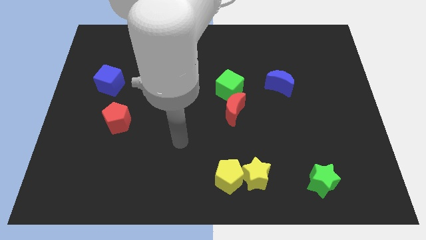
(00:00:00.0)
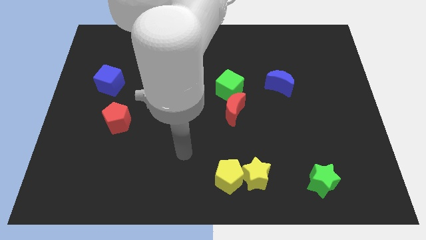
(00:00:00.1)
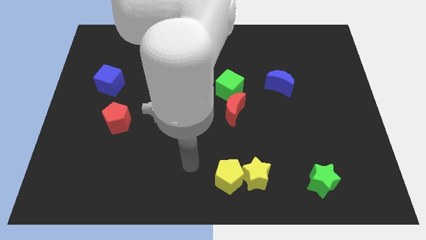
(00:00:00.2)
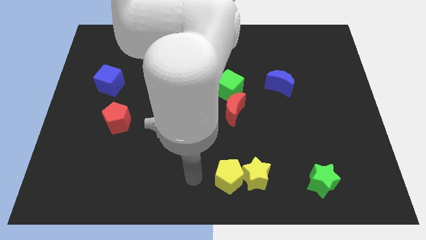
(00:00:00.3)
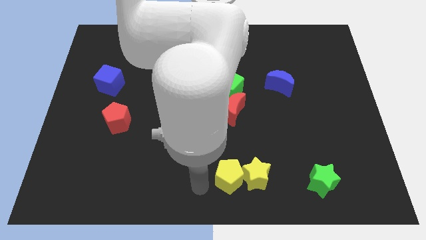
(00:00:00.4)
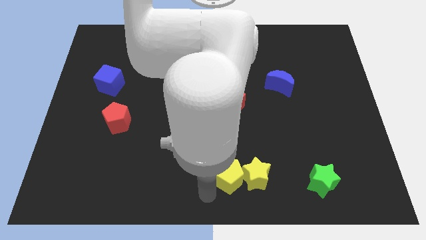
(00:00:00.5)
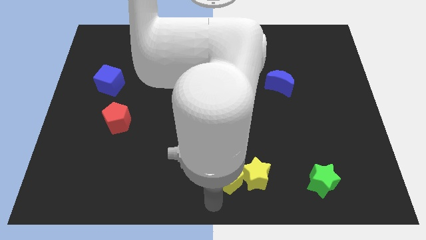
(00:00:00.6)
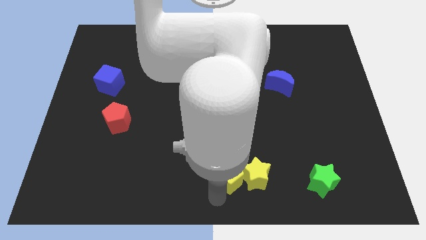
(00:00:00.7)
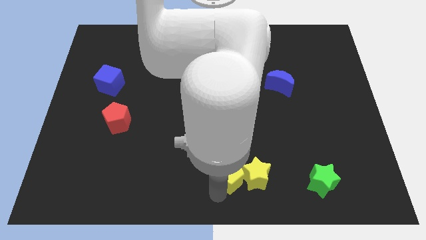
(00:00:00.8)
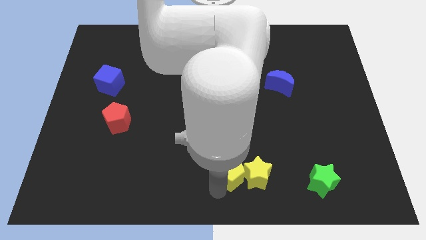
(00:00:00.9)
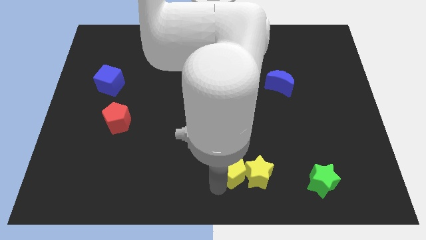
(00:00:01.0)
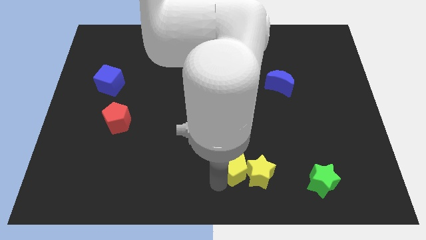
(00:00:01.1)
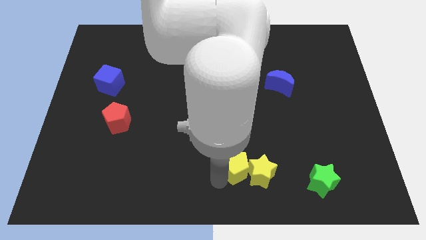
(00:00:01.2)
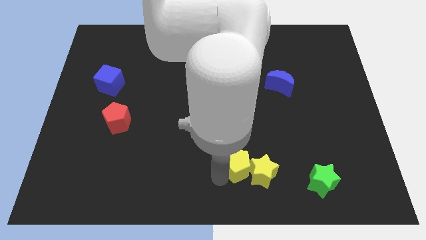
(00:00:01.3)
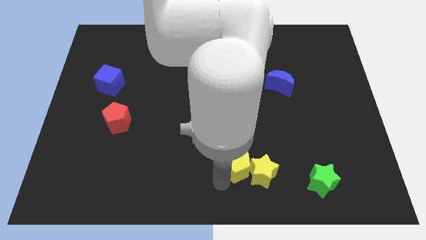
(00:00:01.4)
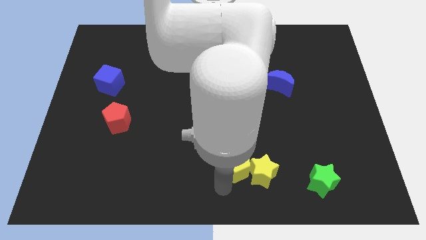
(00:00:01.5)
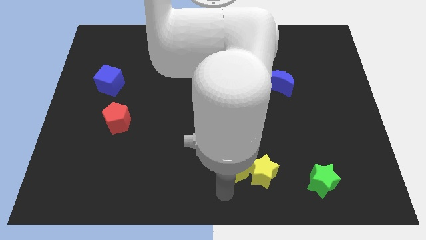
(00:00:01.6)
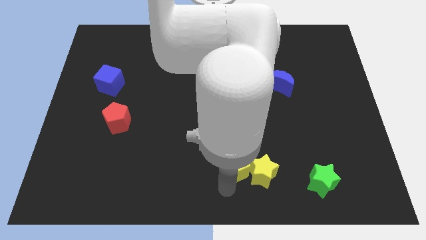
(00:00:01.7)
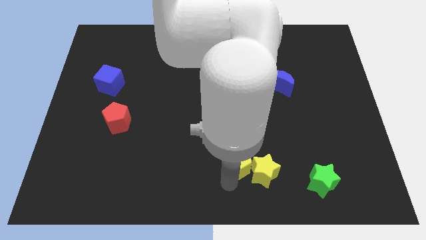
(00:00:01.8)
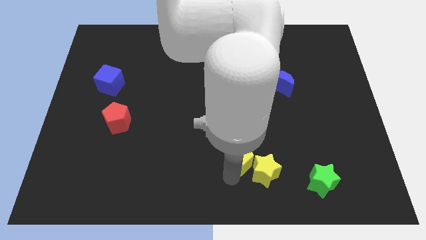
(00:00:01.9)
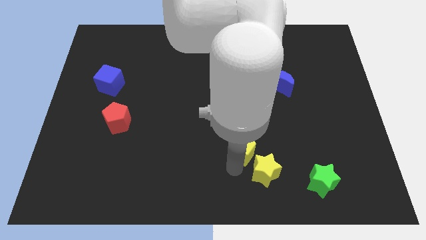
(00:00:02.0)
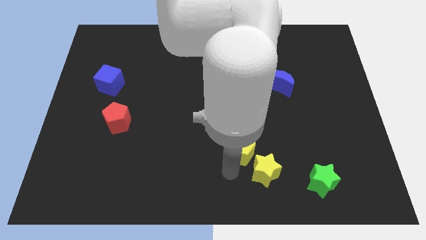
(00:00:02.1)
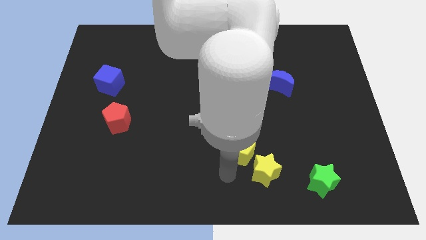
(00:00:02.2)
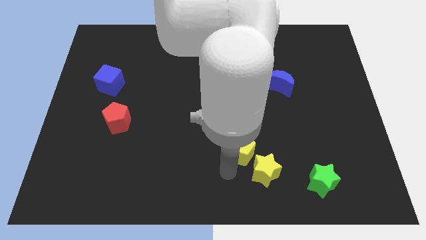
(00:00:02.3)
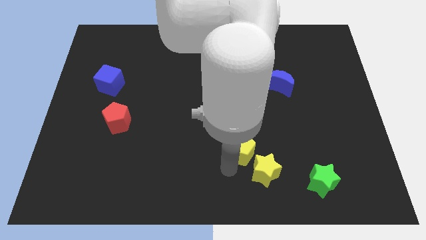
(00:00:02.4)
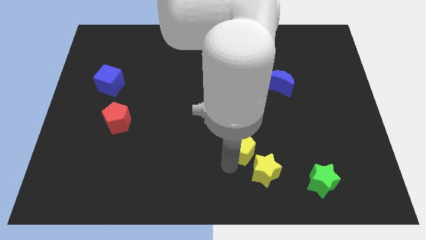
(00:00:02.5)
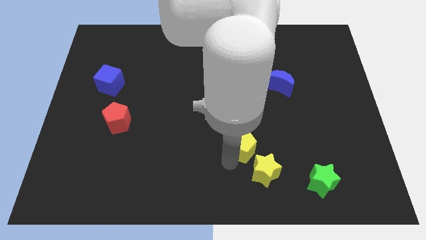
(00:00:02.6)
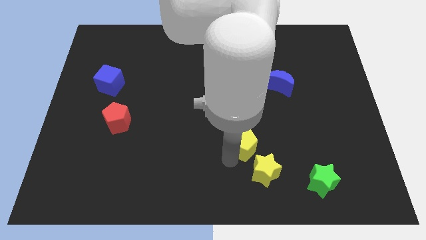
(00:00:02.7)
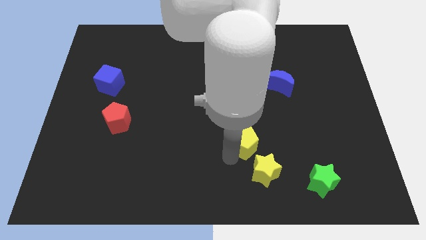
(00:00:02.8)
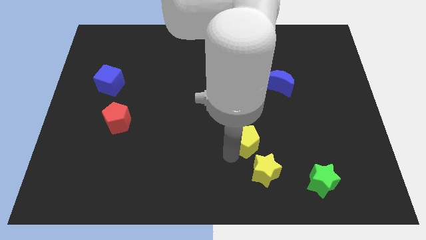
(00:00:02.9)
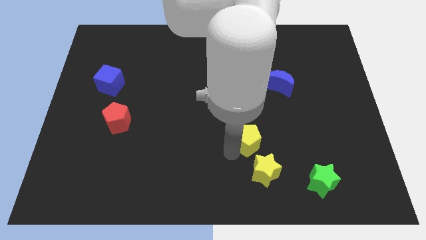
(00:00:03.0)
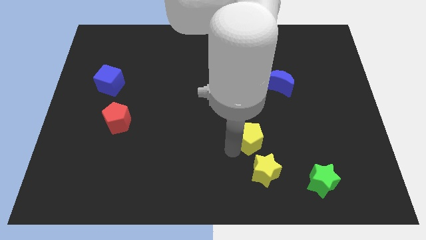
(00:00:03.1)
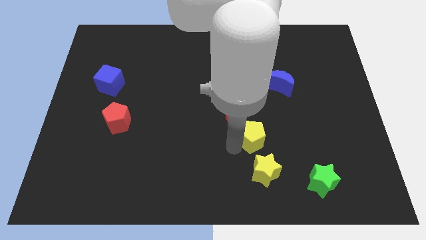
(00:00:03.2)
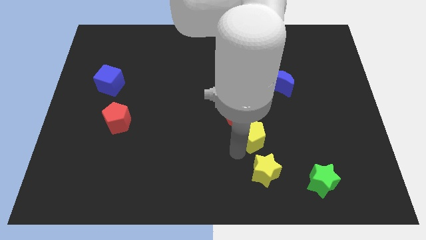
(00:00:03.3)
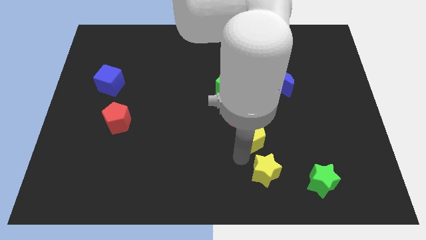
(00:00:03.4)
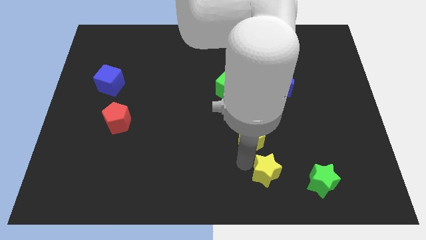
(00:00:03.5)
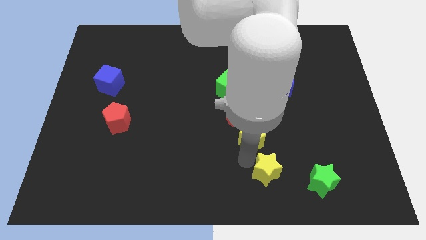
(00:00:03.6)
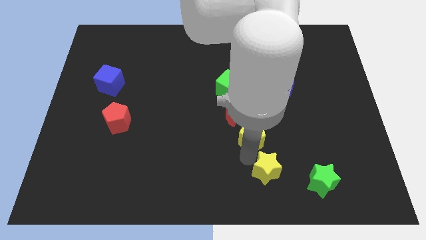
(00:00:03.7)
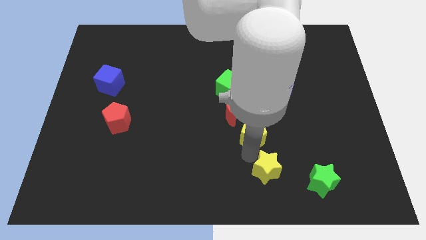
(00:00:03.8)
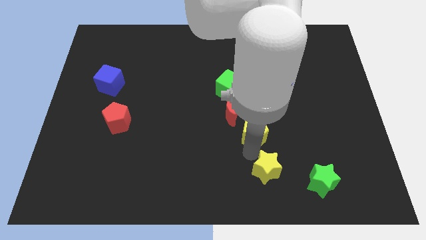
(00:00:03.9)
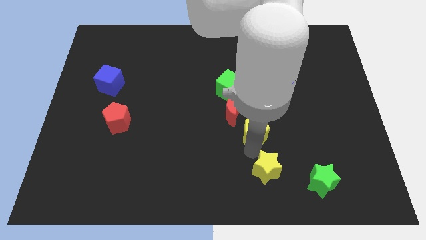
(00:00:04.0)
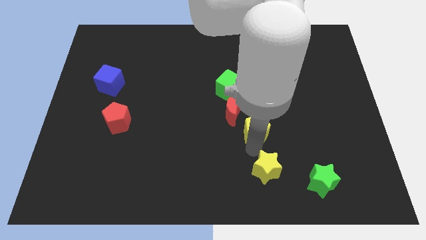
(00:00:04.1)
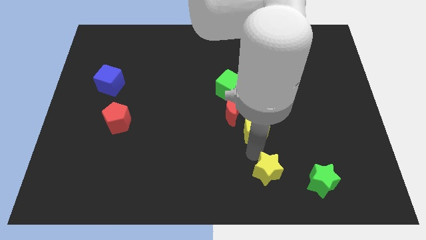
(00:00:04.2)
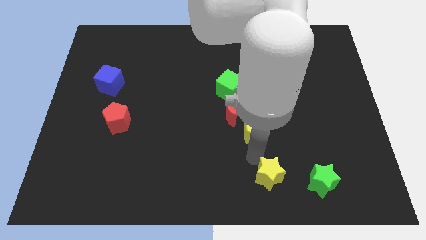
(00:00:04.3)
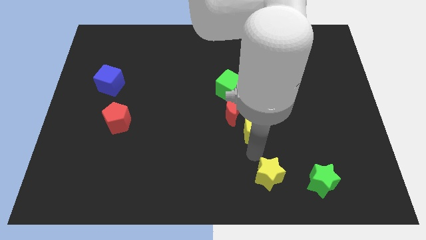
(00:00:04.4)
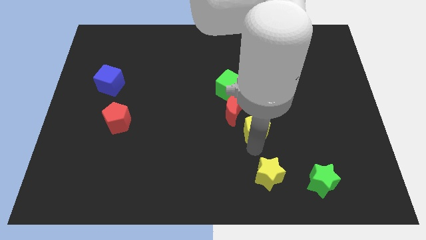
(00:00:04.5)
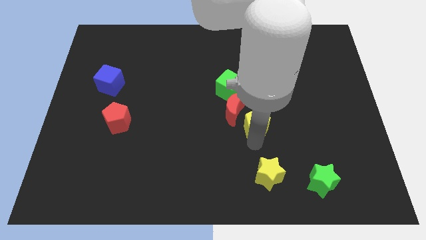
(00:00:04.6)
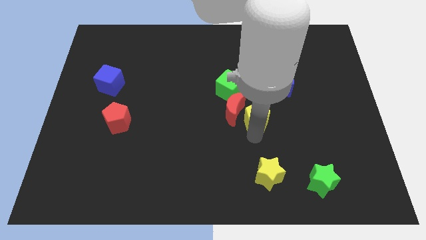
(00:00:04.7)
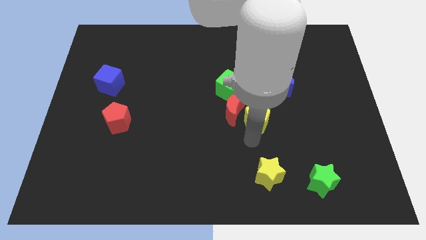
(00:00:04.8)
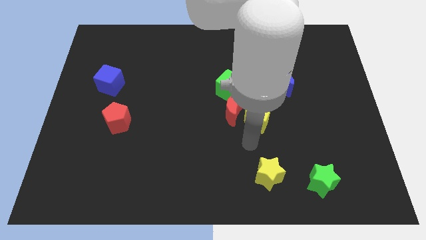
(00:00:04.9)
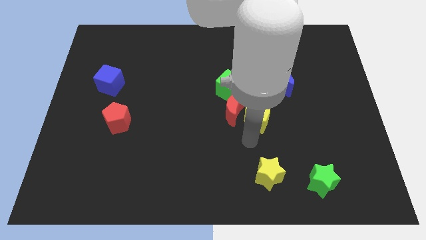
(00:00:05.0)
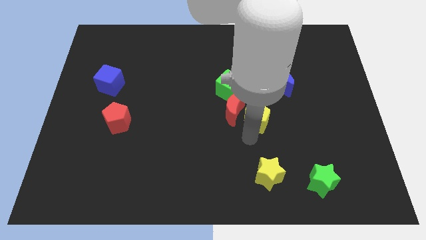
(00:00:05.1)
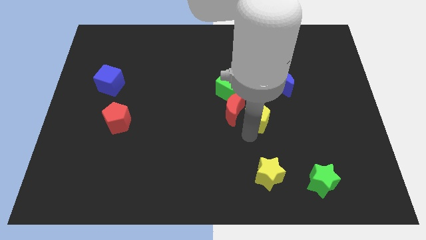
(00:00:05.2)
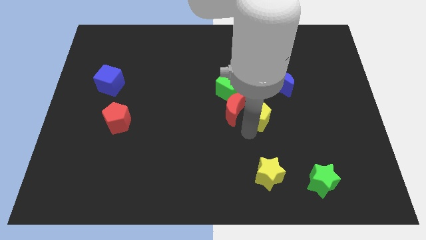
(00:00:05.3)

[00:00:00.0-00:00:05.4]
move the yellow pentagon to the bottom left side of the blue moon

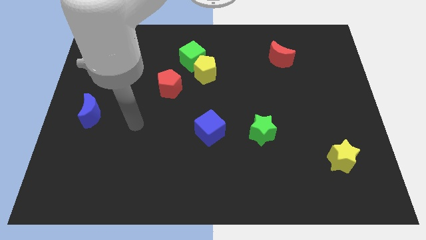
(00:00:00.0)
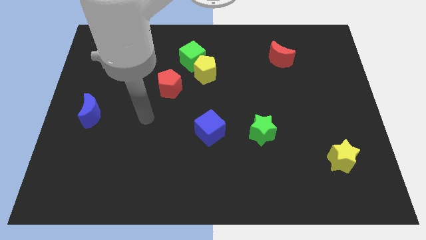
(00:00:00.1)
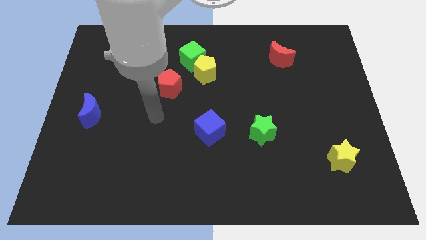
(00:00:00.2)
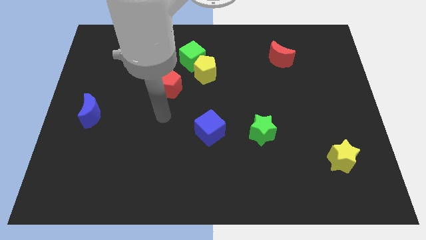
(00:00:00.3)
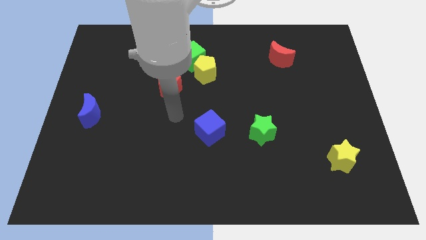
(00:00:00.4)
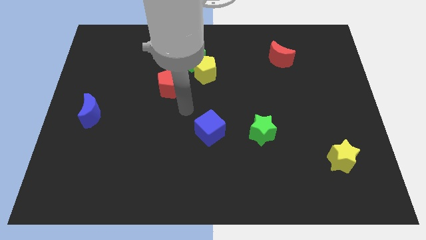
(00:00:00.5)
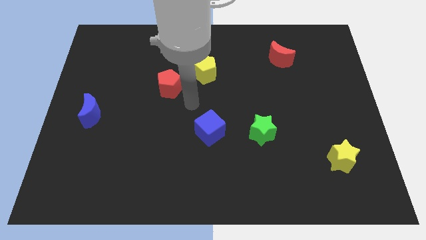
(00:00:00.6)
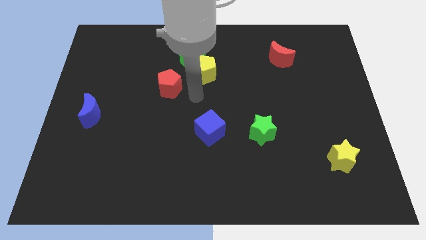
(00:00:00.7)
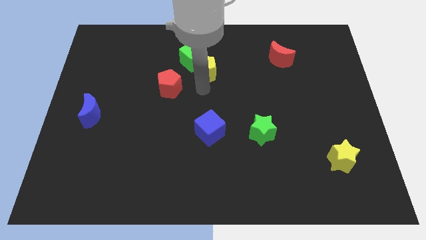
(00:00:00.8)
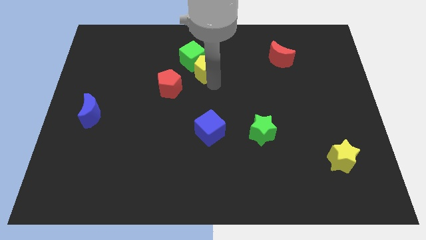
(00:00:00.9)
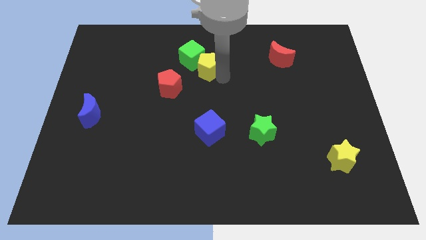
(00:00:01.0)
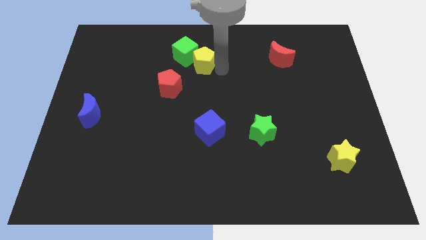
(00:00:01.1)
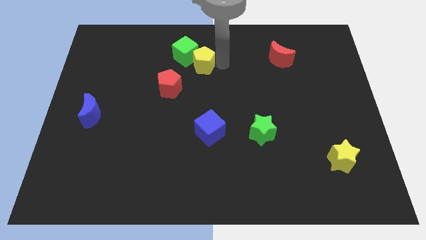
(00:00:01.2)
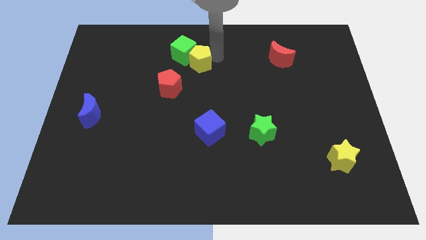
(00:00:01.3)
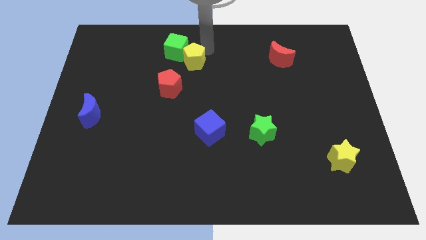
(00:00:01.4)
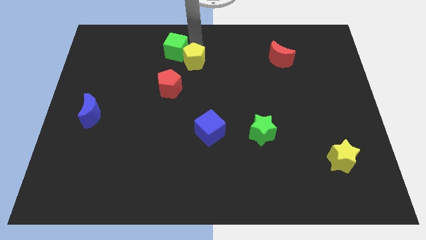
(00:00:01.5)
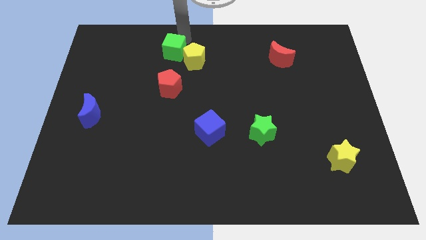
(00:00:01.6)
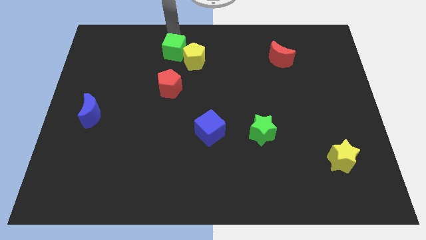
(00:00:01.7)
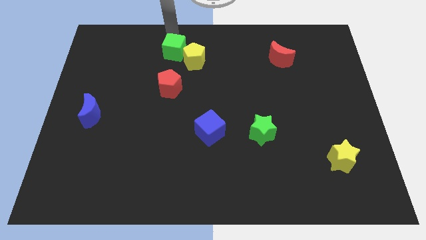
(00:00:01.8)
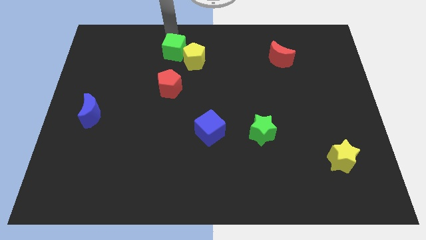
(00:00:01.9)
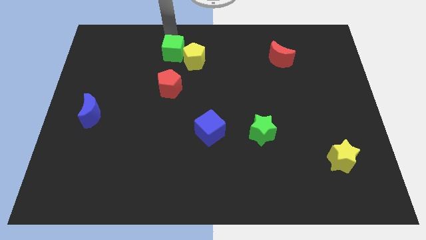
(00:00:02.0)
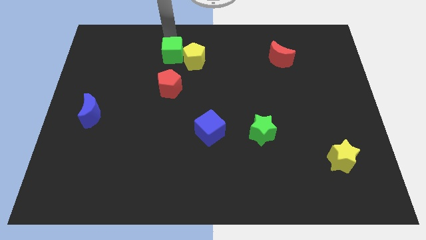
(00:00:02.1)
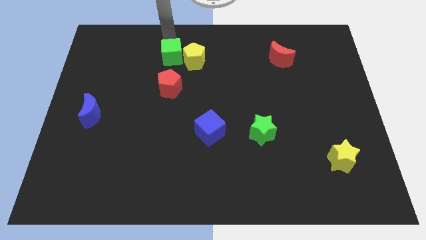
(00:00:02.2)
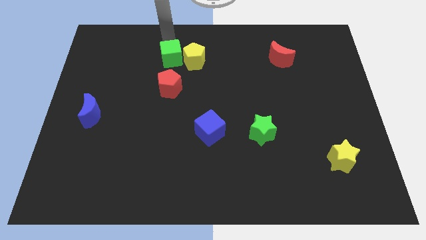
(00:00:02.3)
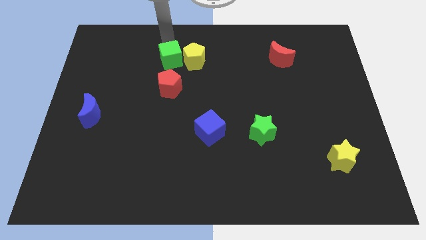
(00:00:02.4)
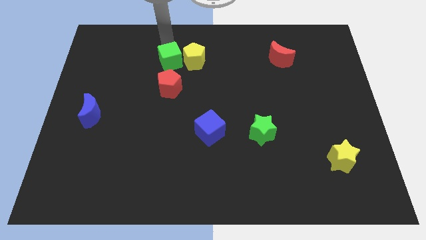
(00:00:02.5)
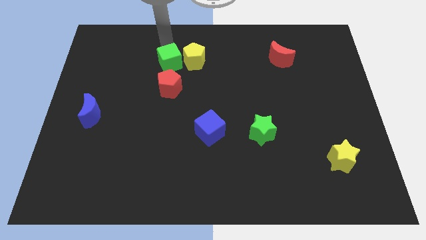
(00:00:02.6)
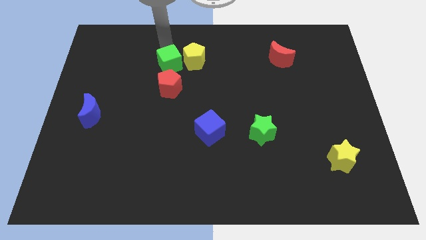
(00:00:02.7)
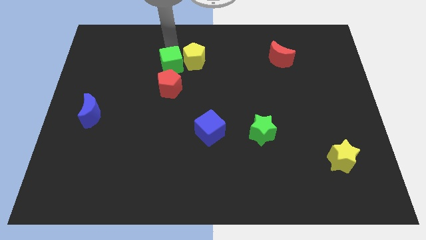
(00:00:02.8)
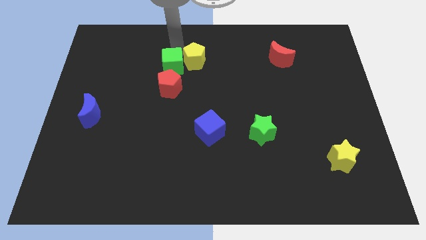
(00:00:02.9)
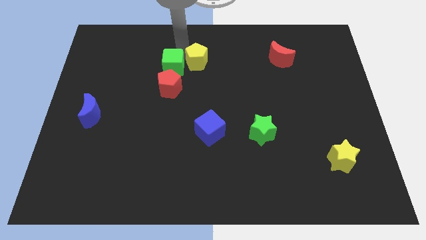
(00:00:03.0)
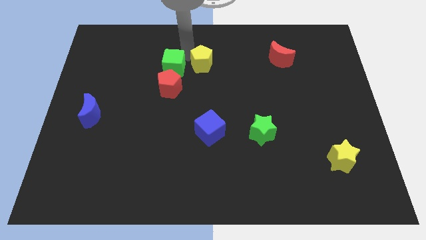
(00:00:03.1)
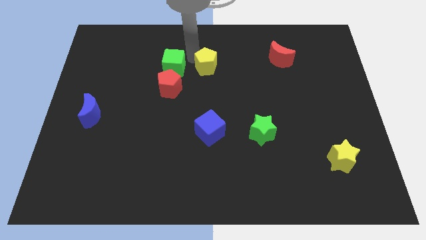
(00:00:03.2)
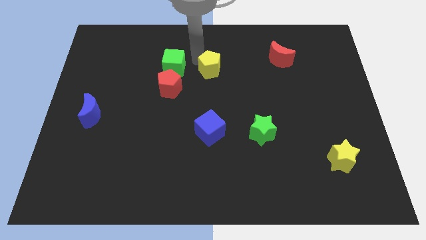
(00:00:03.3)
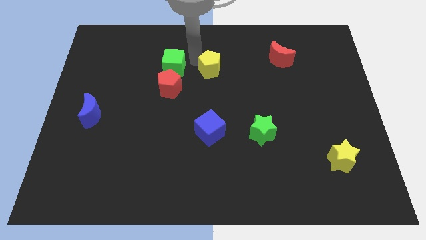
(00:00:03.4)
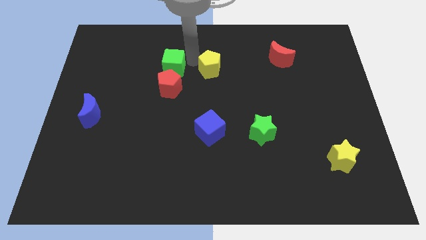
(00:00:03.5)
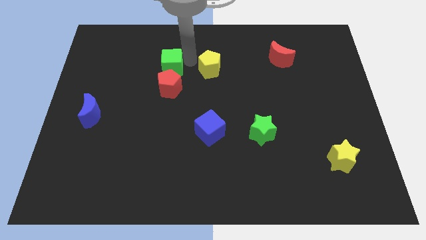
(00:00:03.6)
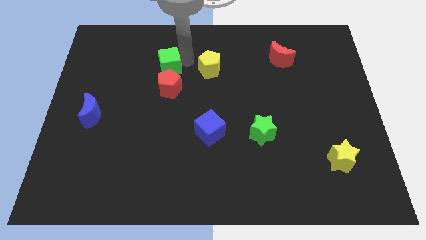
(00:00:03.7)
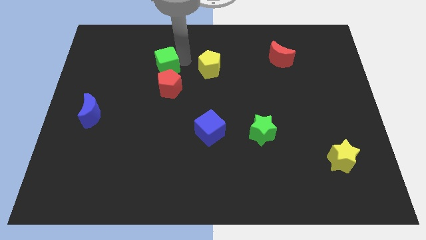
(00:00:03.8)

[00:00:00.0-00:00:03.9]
put the green cube to the top left of the red pentagon
